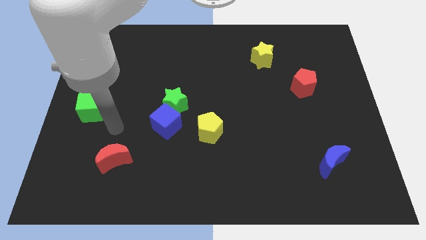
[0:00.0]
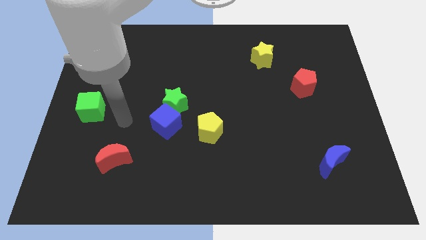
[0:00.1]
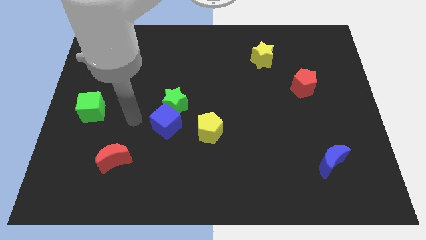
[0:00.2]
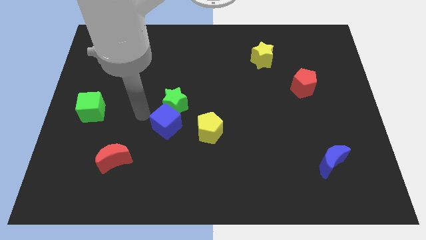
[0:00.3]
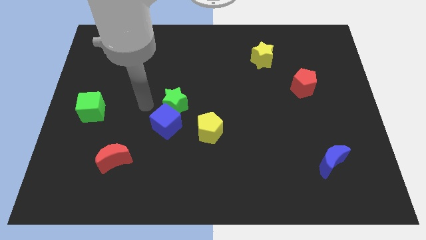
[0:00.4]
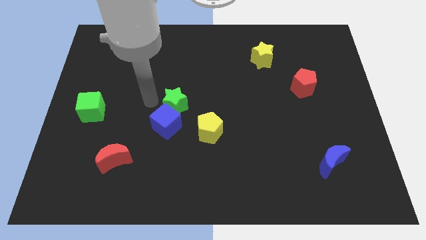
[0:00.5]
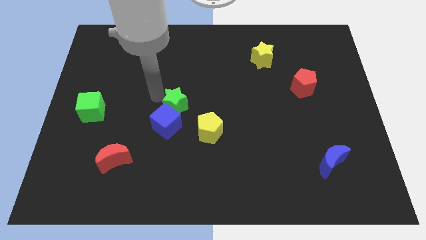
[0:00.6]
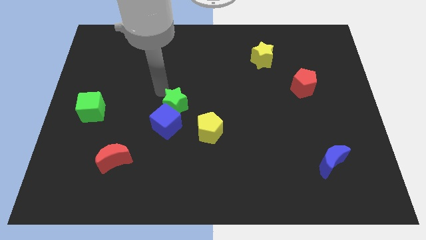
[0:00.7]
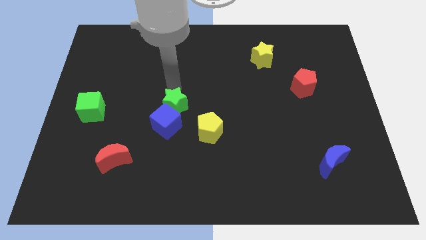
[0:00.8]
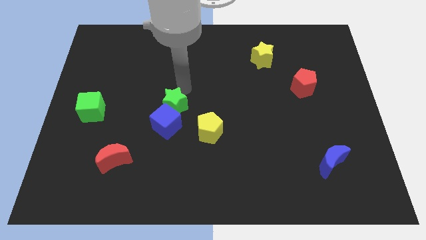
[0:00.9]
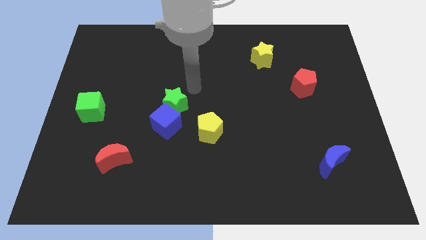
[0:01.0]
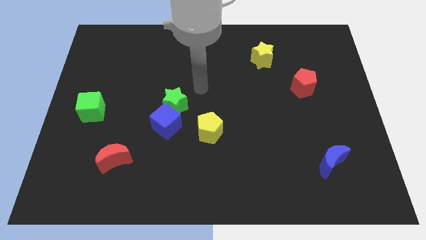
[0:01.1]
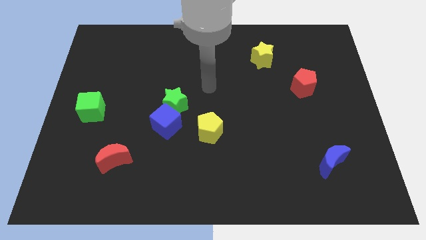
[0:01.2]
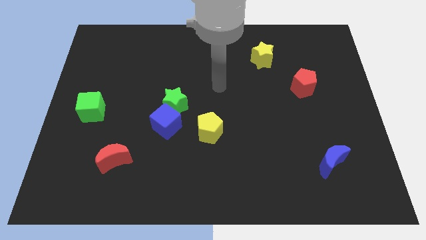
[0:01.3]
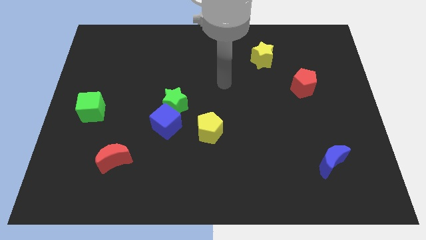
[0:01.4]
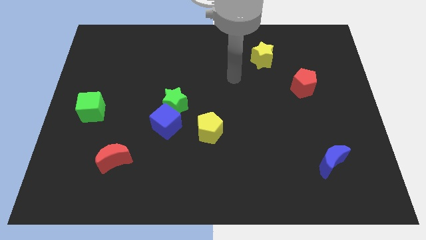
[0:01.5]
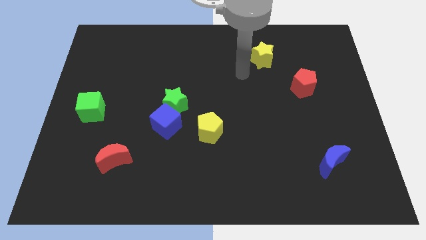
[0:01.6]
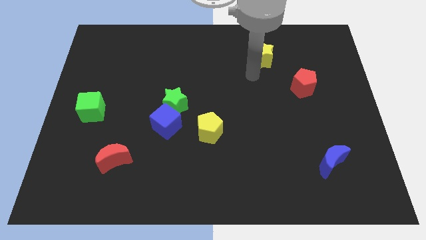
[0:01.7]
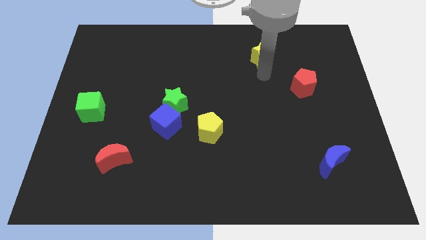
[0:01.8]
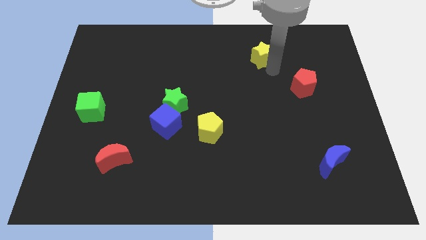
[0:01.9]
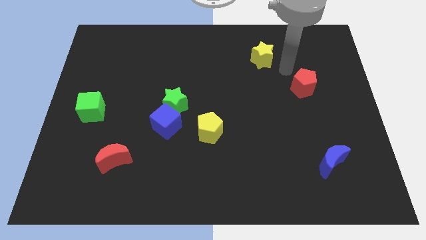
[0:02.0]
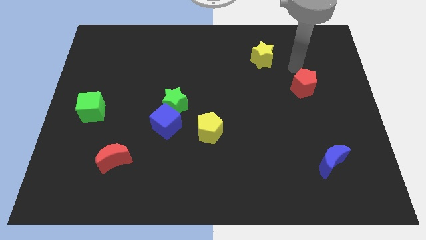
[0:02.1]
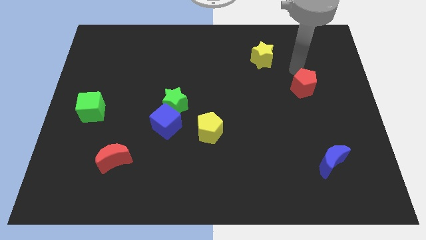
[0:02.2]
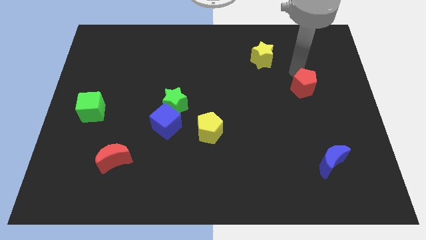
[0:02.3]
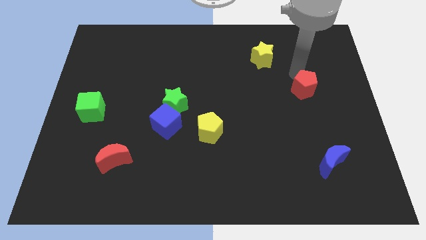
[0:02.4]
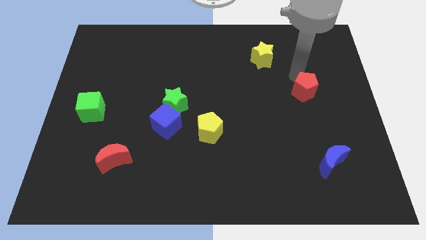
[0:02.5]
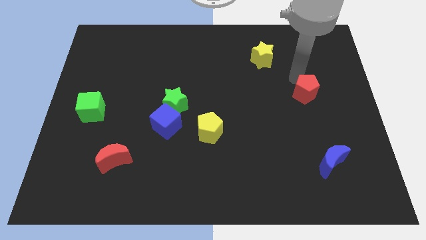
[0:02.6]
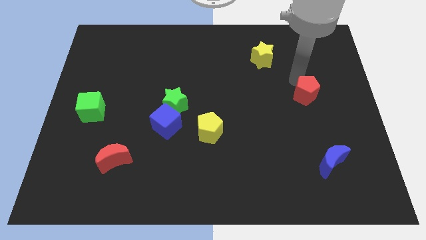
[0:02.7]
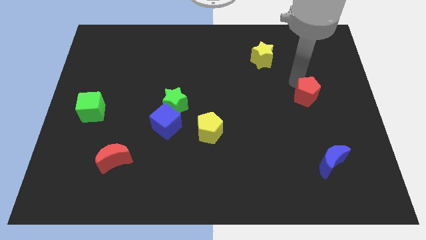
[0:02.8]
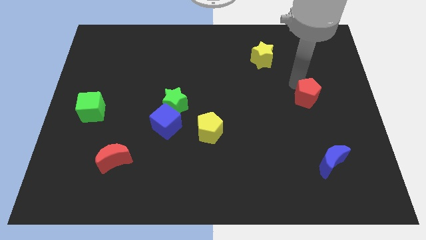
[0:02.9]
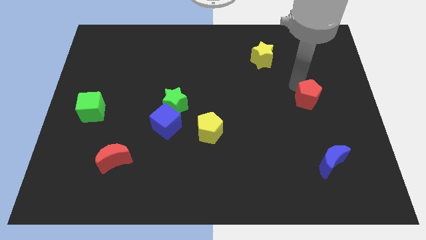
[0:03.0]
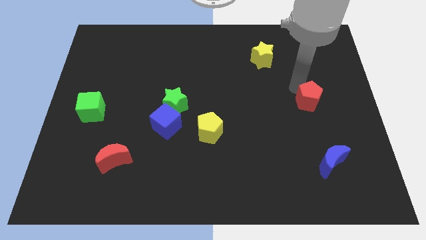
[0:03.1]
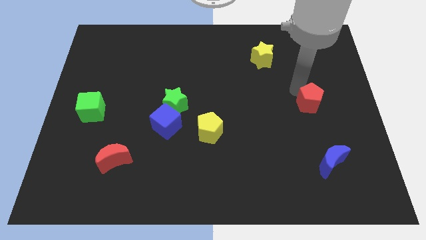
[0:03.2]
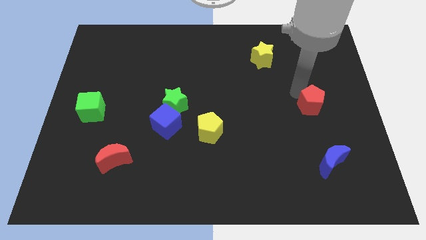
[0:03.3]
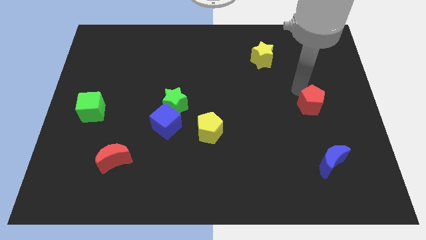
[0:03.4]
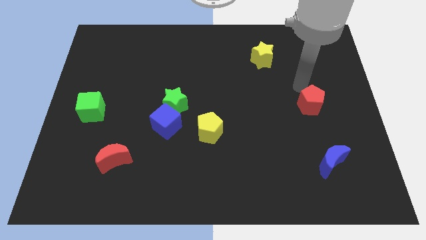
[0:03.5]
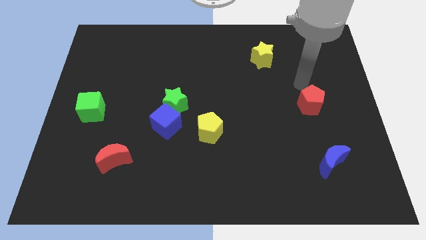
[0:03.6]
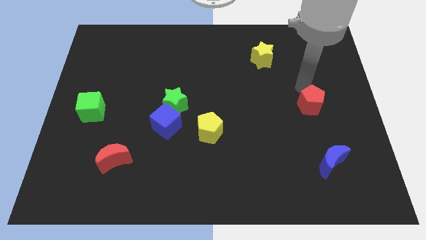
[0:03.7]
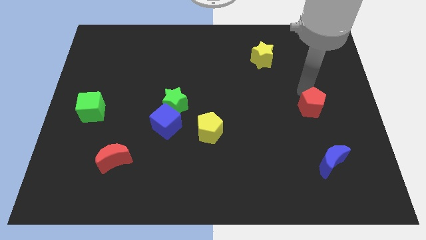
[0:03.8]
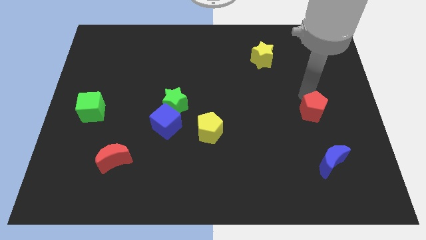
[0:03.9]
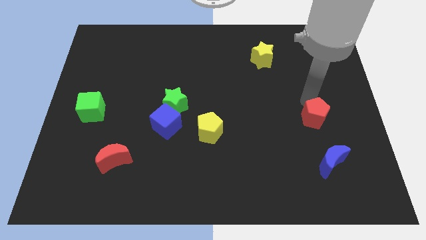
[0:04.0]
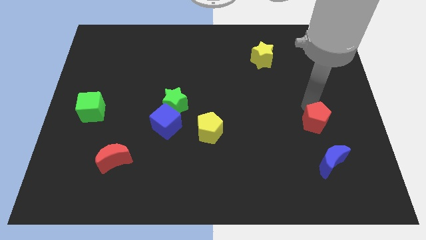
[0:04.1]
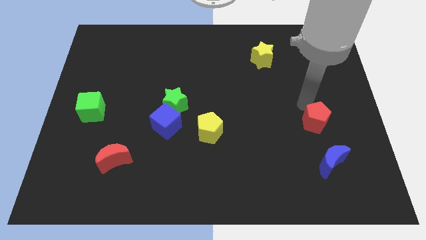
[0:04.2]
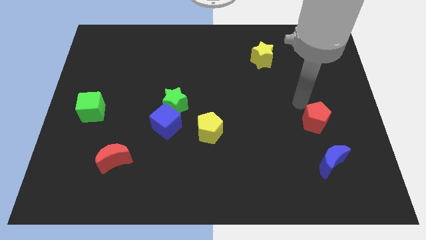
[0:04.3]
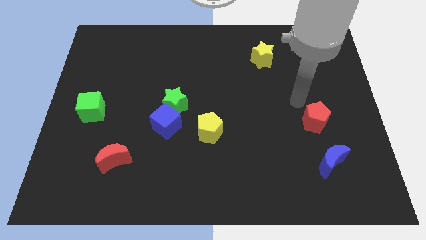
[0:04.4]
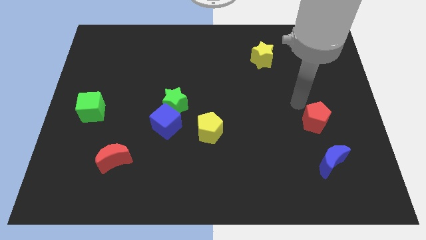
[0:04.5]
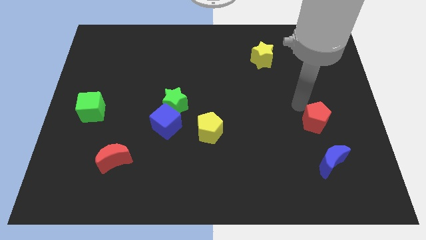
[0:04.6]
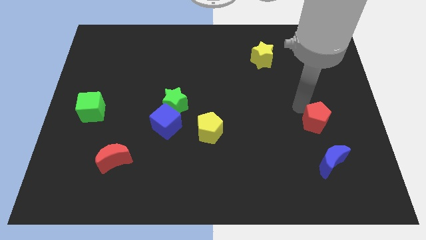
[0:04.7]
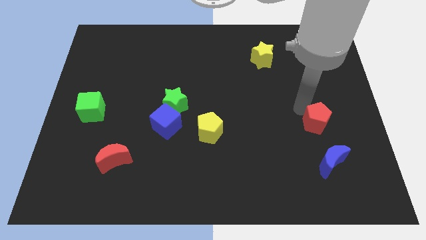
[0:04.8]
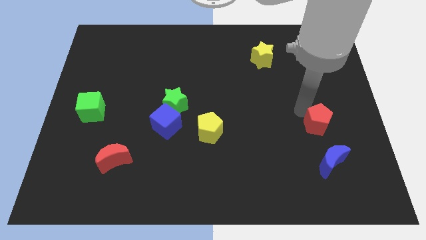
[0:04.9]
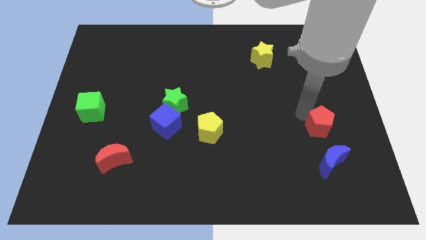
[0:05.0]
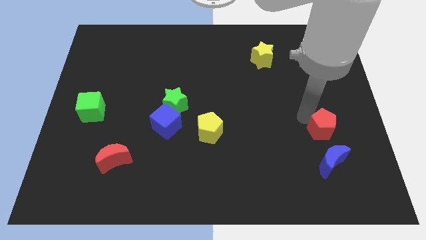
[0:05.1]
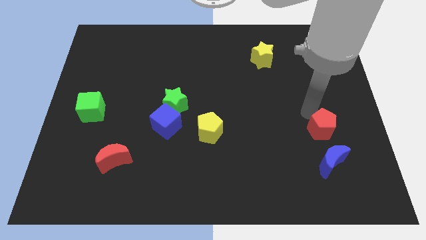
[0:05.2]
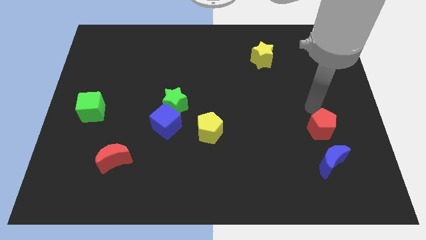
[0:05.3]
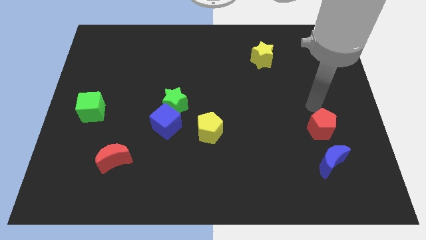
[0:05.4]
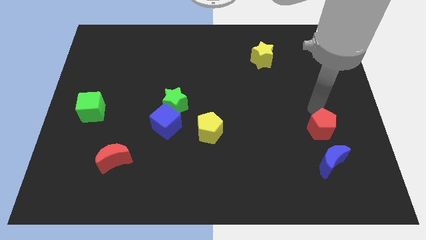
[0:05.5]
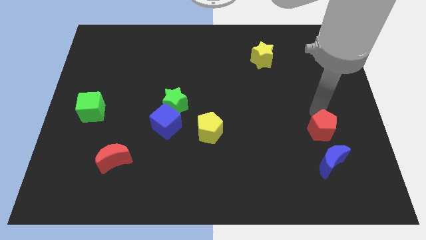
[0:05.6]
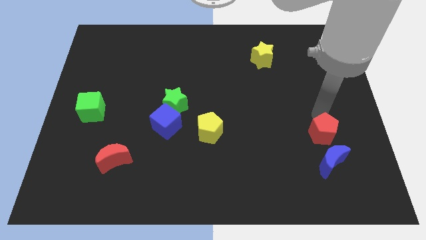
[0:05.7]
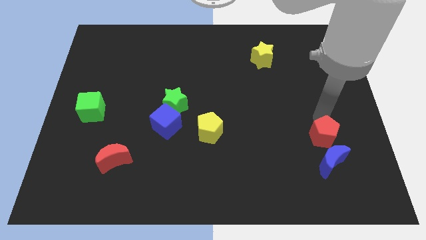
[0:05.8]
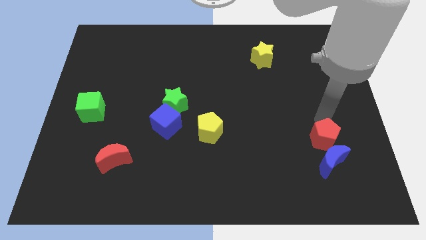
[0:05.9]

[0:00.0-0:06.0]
move the red pentagon close to the blue moon
